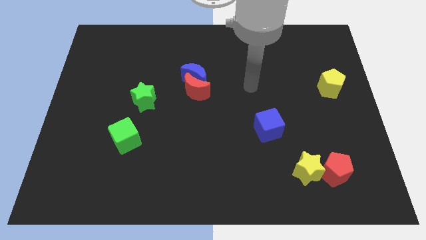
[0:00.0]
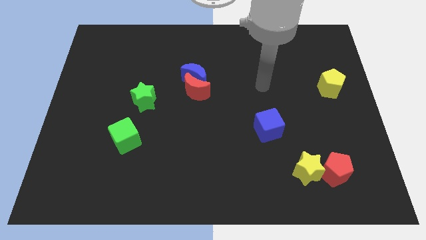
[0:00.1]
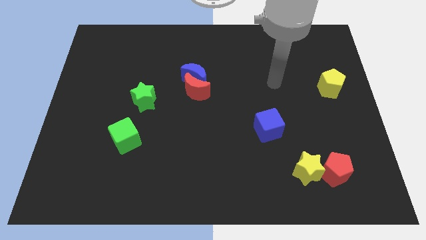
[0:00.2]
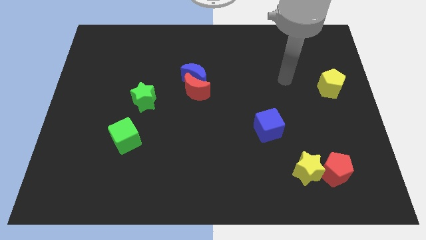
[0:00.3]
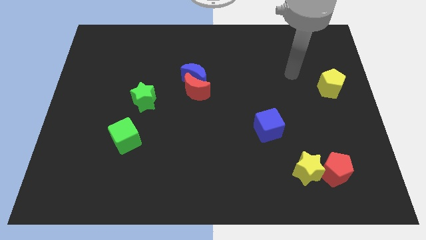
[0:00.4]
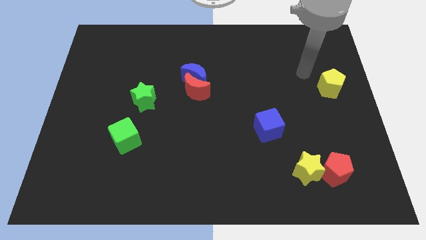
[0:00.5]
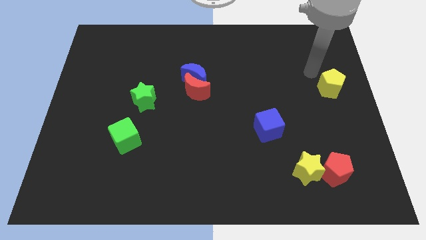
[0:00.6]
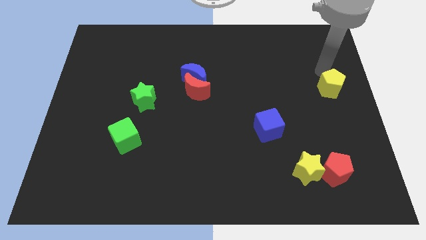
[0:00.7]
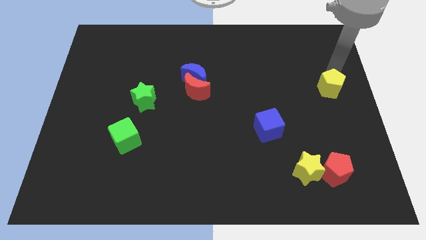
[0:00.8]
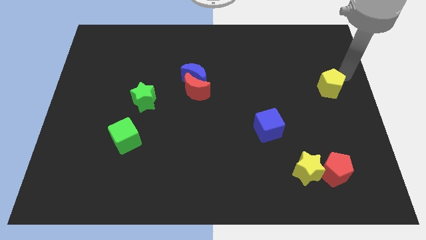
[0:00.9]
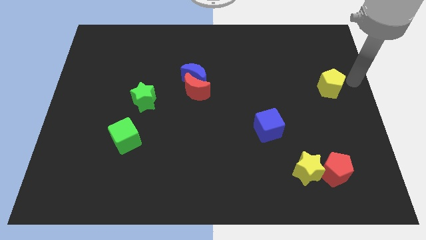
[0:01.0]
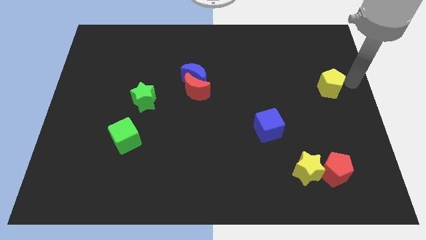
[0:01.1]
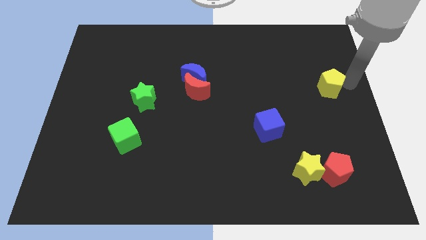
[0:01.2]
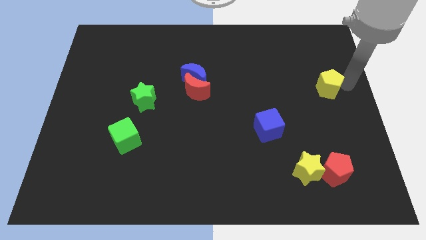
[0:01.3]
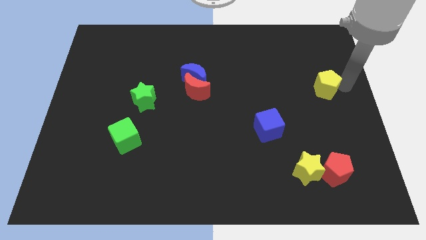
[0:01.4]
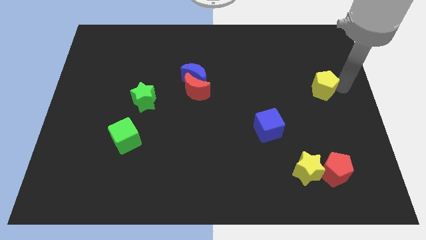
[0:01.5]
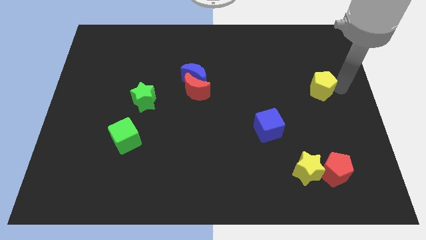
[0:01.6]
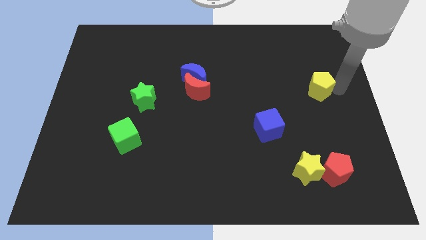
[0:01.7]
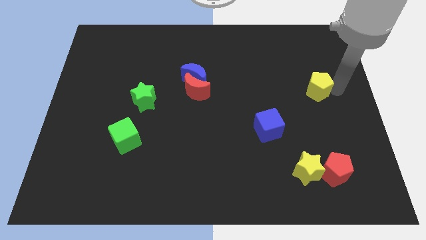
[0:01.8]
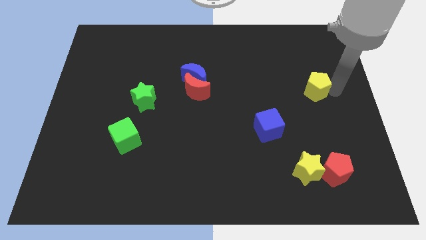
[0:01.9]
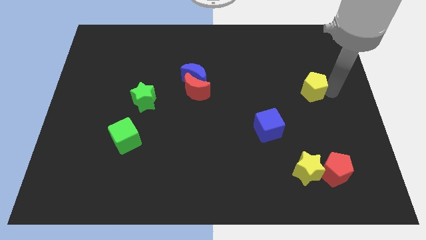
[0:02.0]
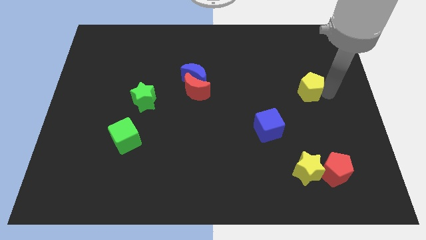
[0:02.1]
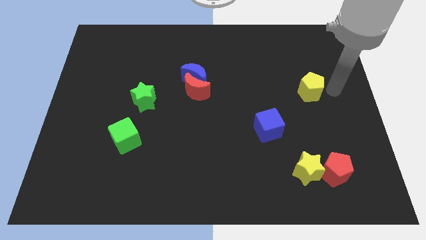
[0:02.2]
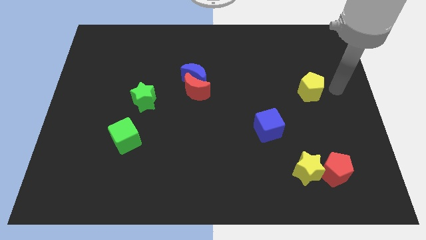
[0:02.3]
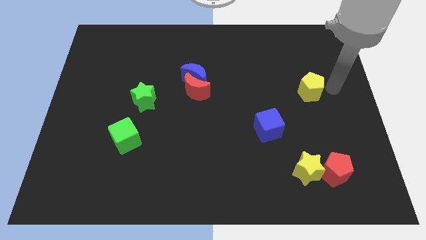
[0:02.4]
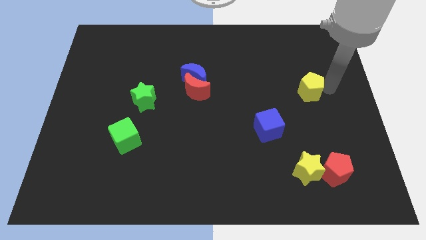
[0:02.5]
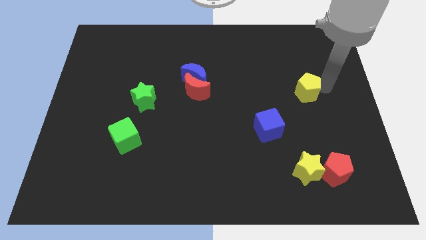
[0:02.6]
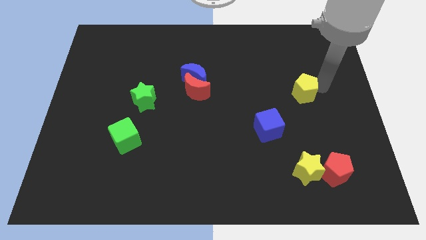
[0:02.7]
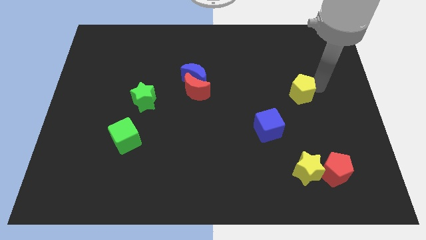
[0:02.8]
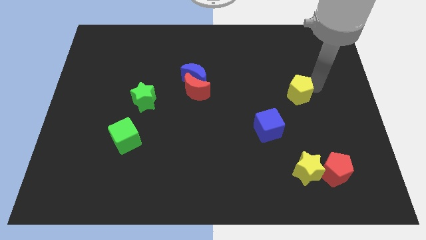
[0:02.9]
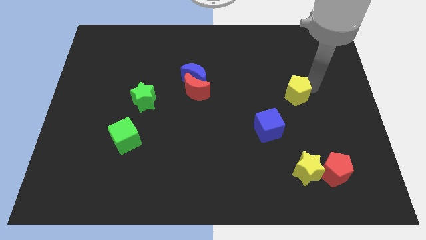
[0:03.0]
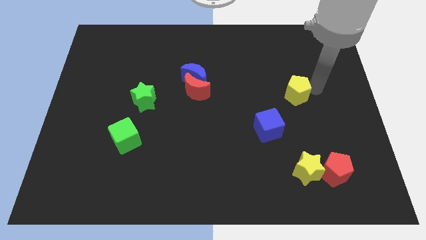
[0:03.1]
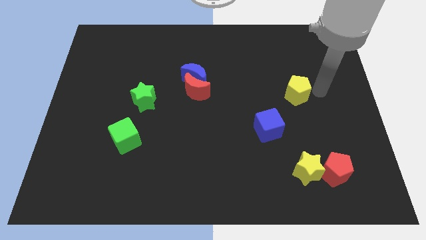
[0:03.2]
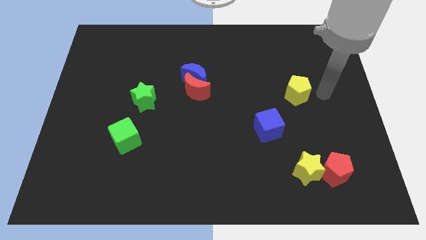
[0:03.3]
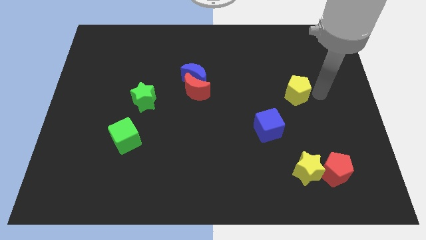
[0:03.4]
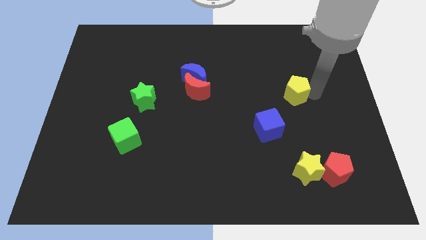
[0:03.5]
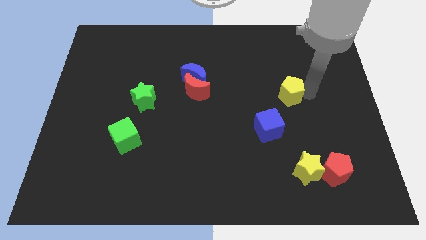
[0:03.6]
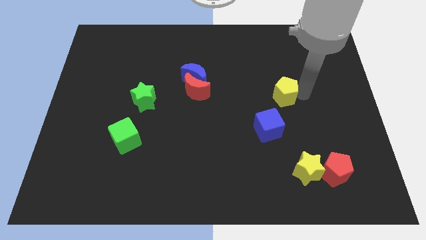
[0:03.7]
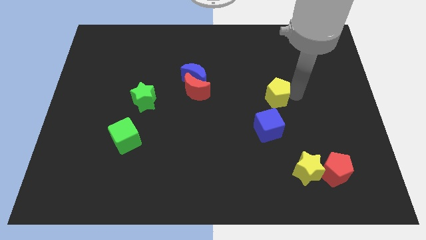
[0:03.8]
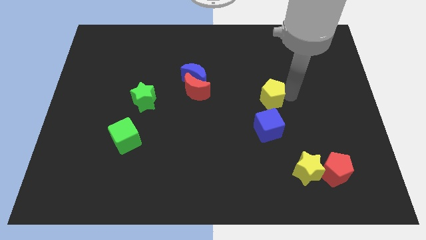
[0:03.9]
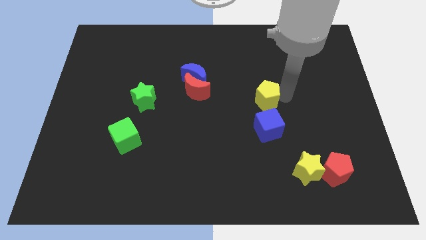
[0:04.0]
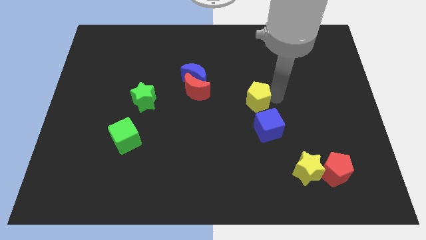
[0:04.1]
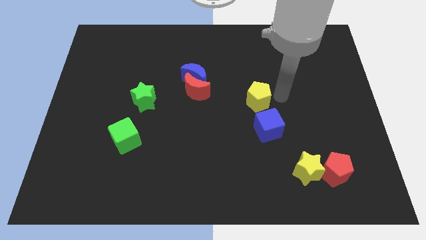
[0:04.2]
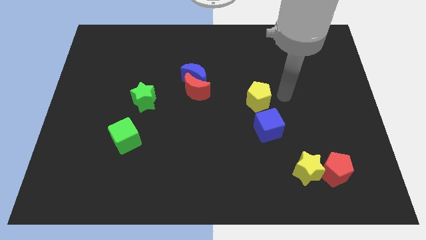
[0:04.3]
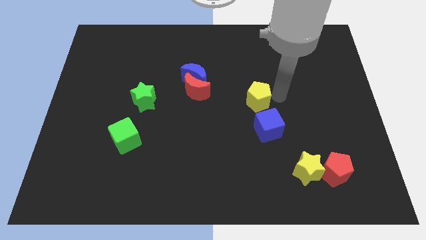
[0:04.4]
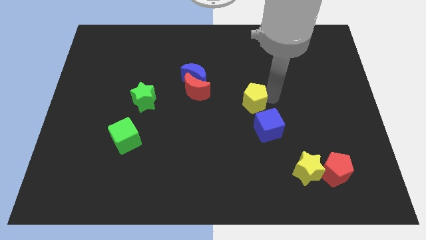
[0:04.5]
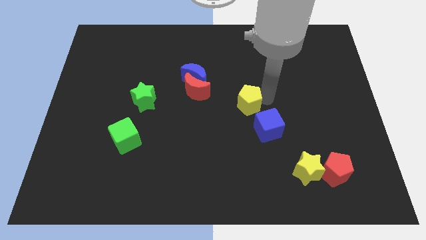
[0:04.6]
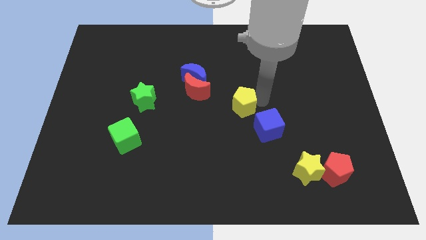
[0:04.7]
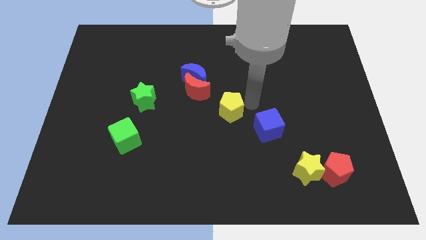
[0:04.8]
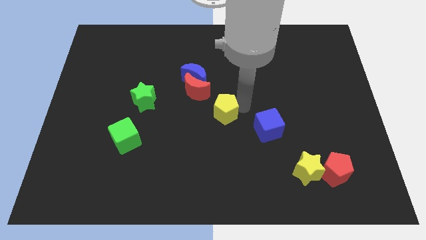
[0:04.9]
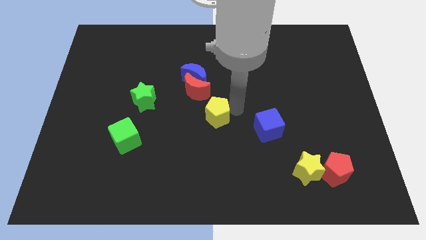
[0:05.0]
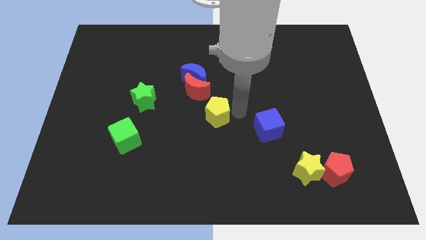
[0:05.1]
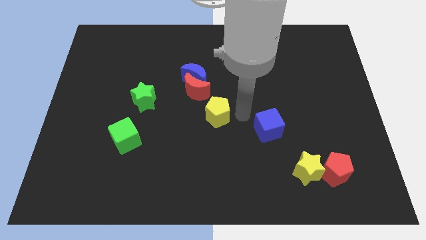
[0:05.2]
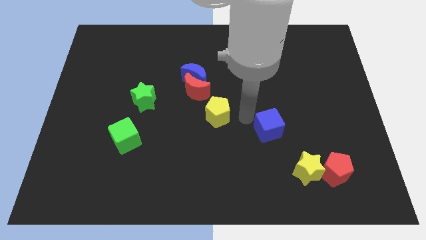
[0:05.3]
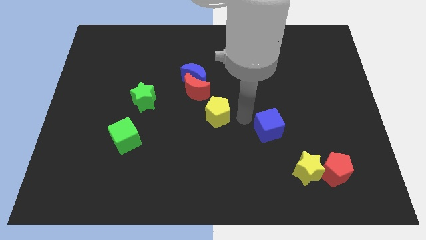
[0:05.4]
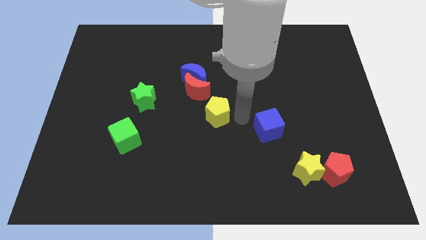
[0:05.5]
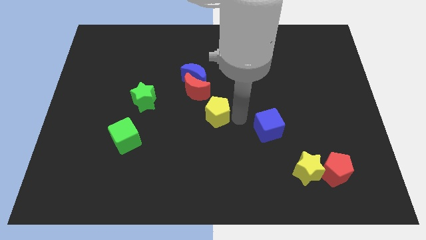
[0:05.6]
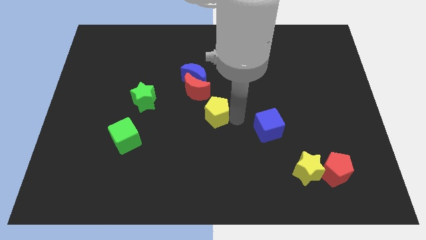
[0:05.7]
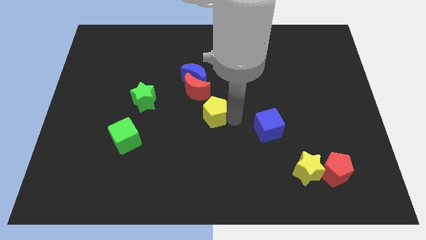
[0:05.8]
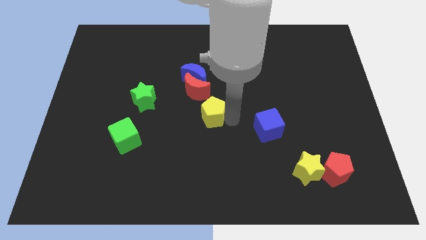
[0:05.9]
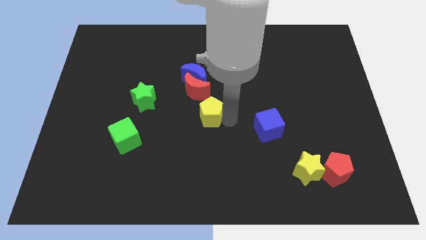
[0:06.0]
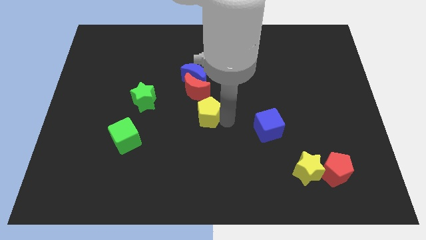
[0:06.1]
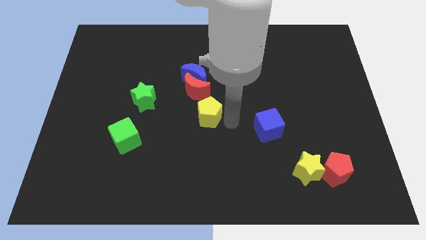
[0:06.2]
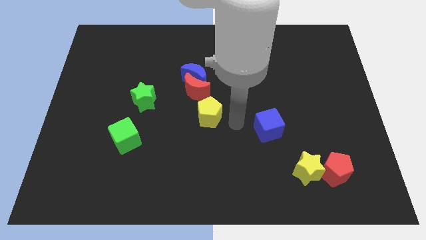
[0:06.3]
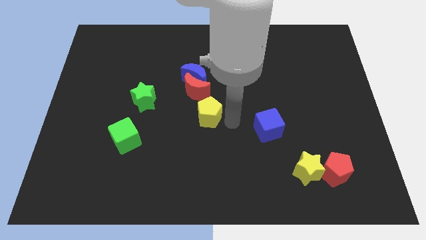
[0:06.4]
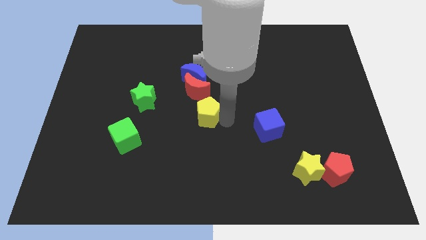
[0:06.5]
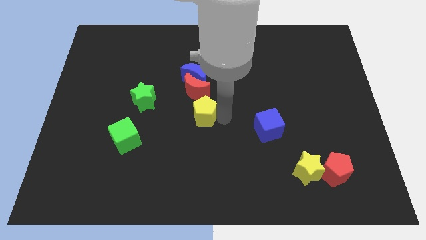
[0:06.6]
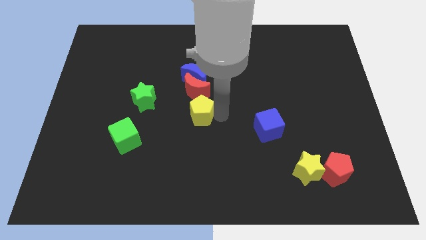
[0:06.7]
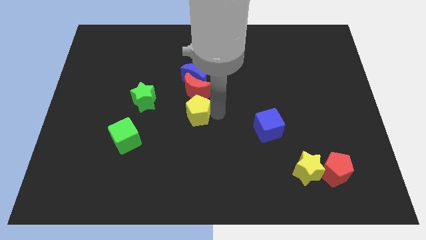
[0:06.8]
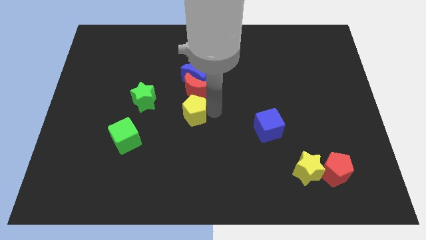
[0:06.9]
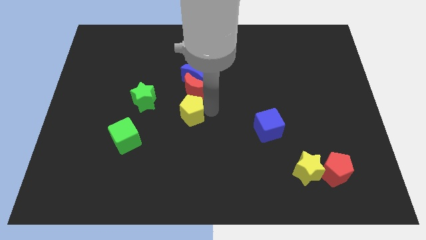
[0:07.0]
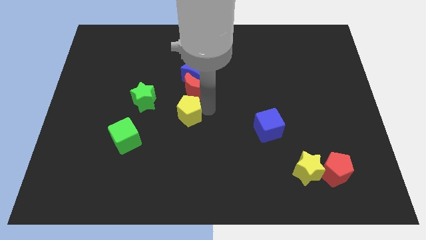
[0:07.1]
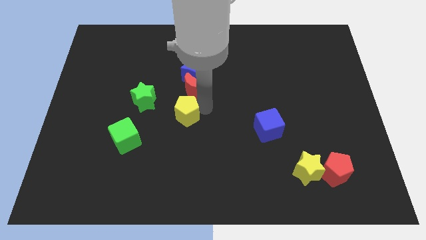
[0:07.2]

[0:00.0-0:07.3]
push the yellow pentagon to the bottom right side of the green star
